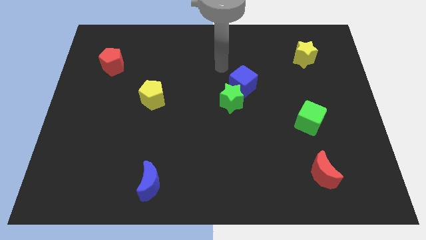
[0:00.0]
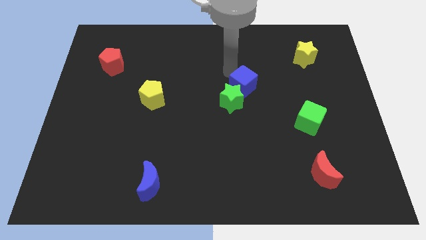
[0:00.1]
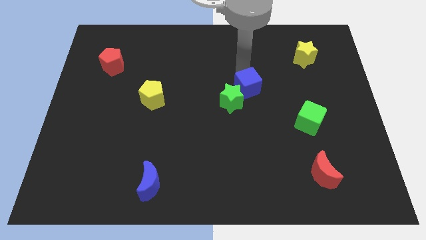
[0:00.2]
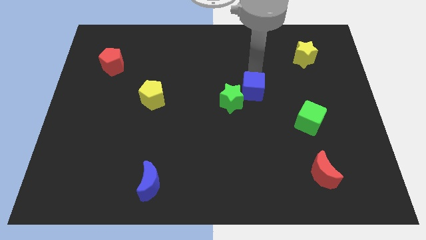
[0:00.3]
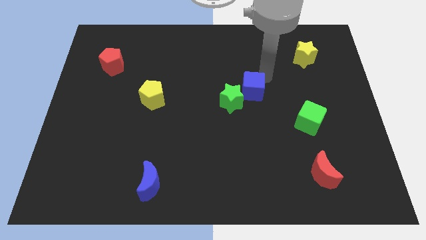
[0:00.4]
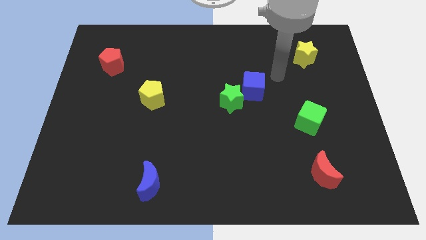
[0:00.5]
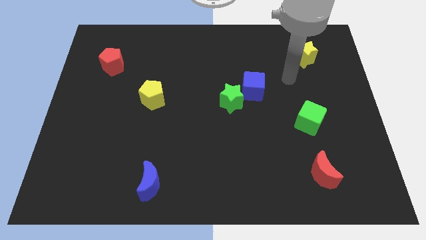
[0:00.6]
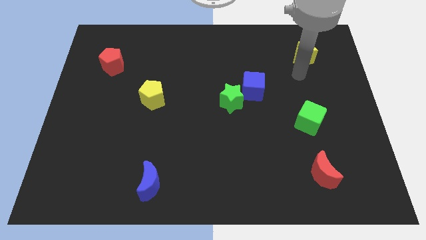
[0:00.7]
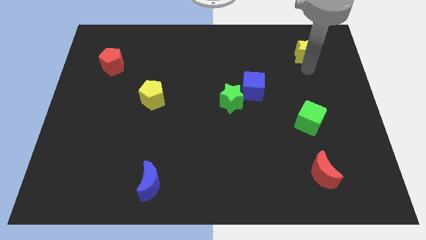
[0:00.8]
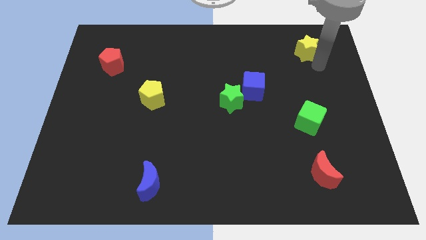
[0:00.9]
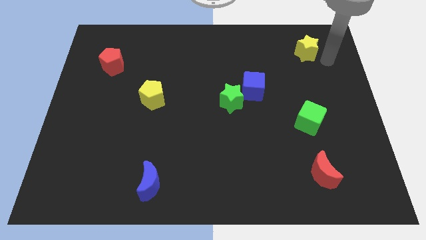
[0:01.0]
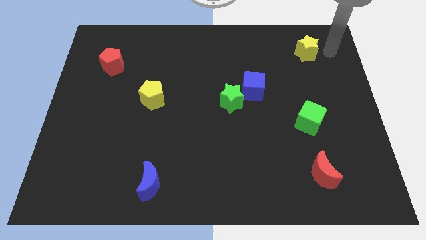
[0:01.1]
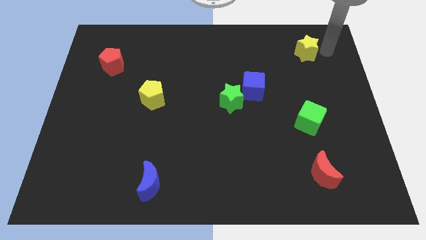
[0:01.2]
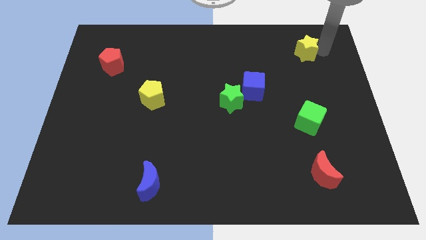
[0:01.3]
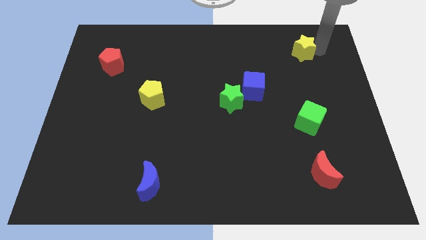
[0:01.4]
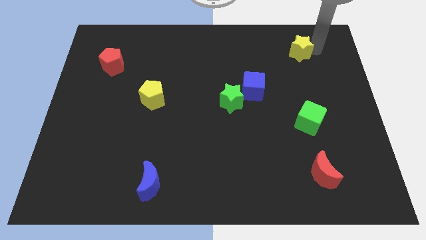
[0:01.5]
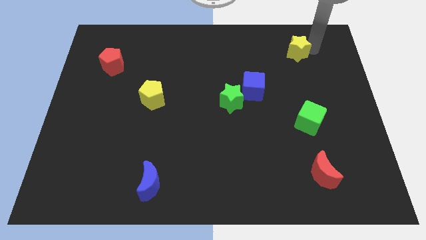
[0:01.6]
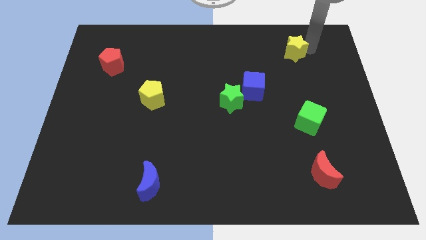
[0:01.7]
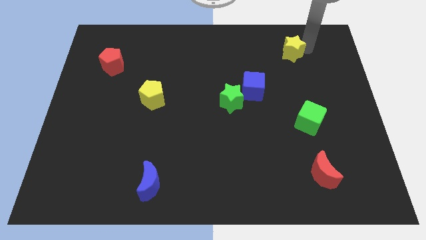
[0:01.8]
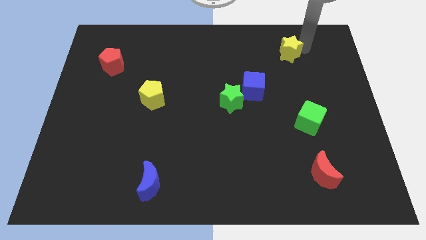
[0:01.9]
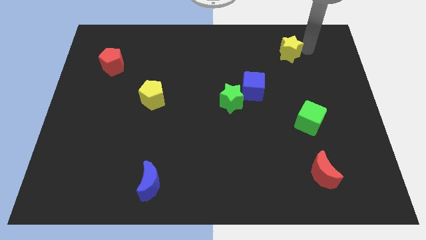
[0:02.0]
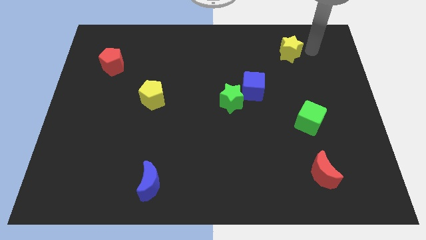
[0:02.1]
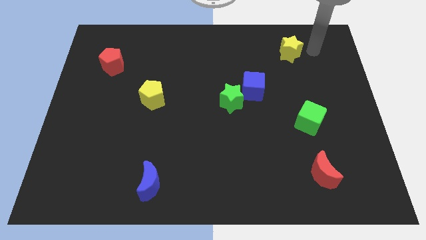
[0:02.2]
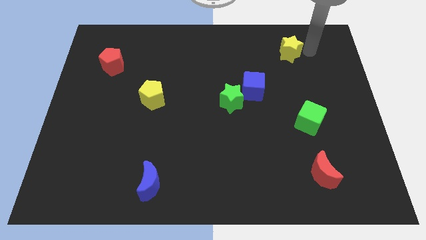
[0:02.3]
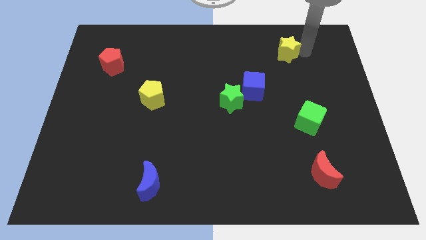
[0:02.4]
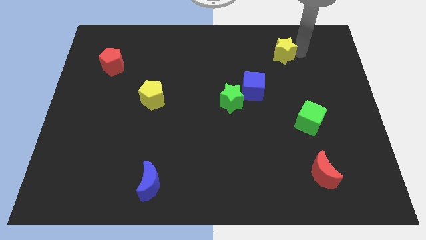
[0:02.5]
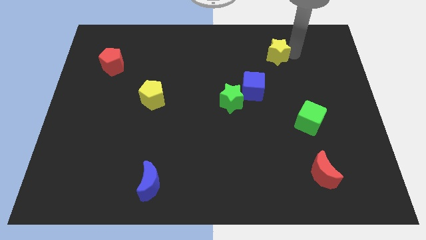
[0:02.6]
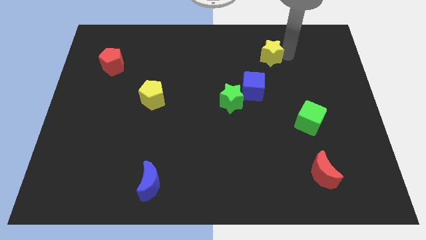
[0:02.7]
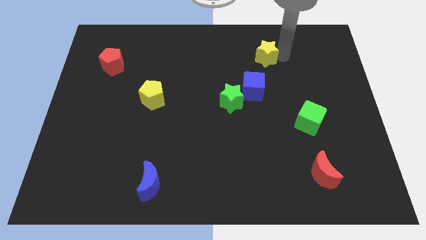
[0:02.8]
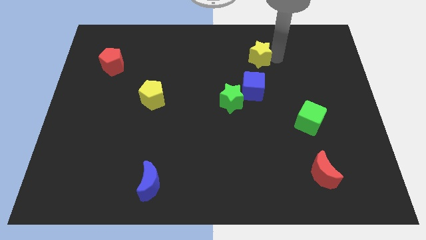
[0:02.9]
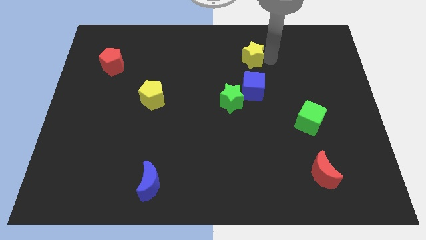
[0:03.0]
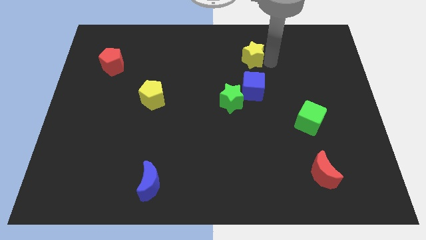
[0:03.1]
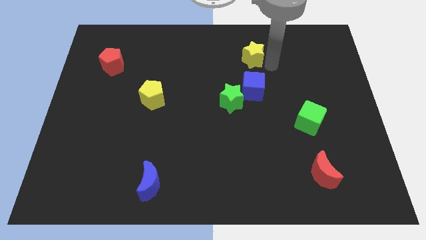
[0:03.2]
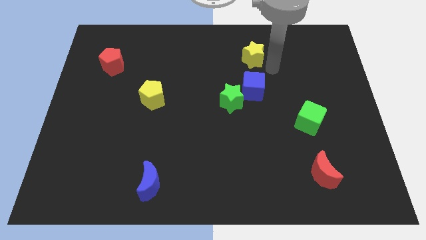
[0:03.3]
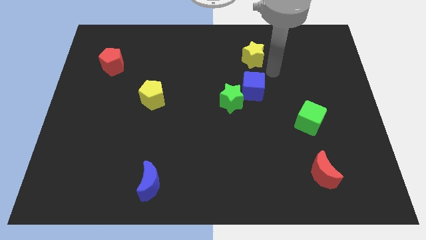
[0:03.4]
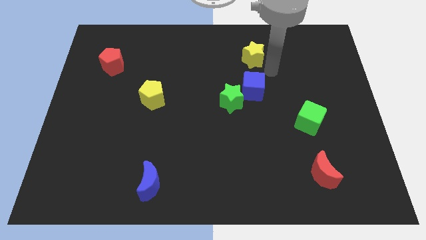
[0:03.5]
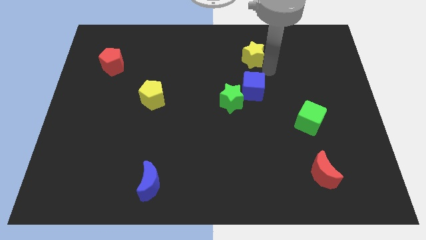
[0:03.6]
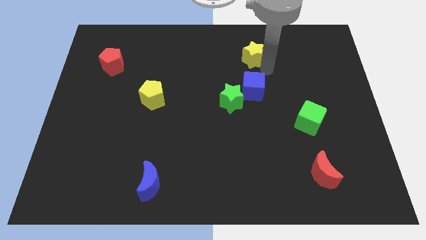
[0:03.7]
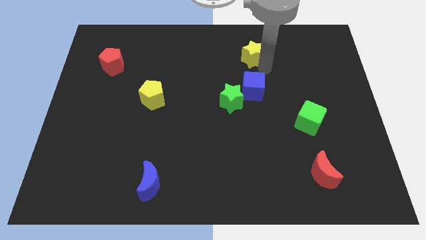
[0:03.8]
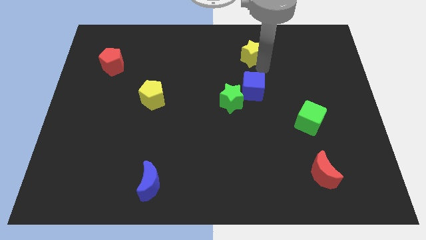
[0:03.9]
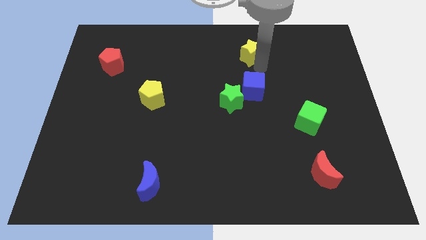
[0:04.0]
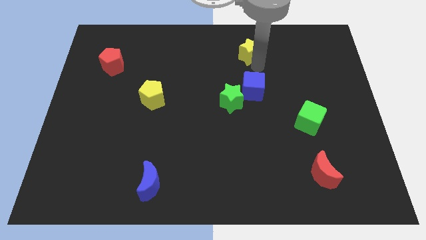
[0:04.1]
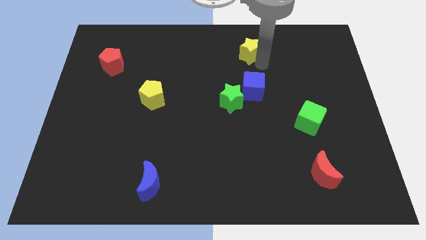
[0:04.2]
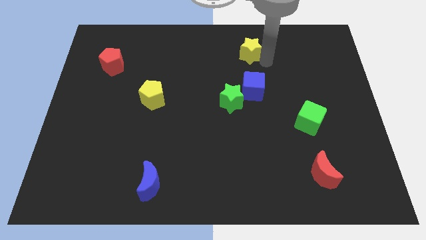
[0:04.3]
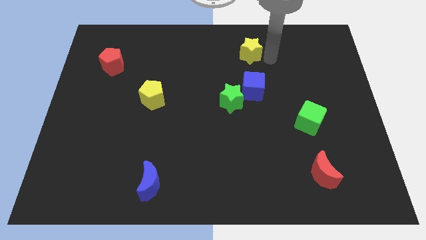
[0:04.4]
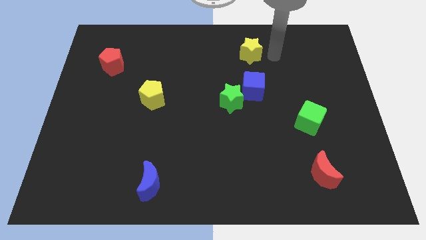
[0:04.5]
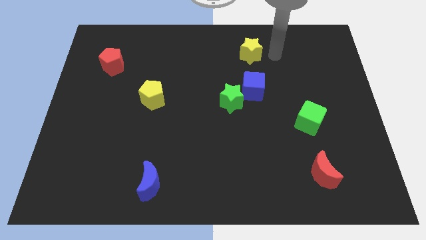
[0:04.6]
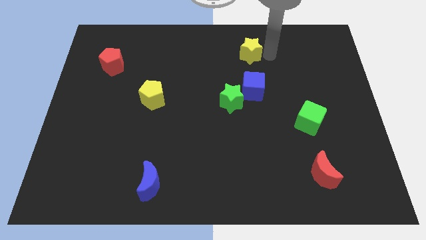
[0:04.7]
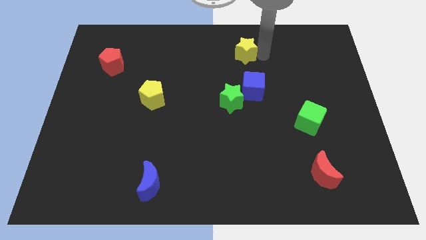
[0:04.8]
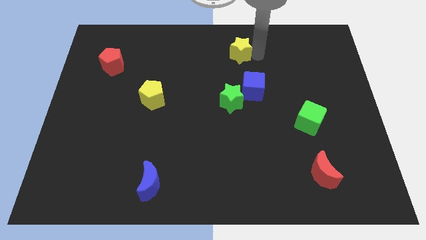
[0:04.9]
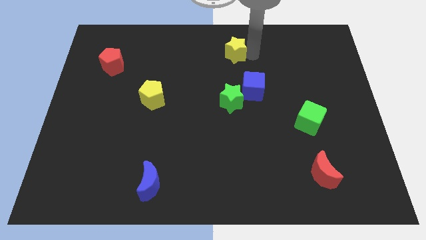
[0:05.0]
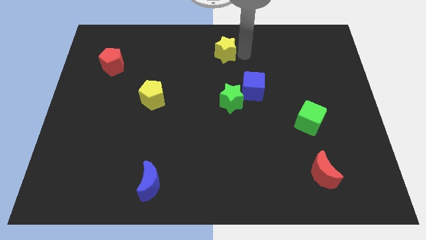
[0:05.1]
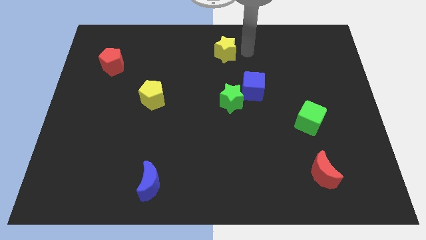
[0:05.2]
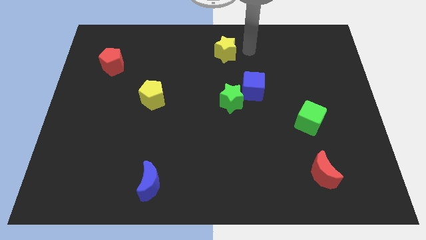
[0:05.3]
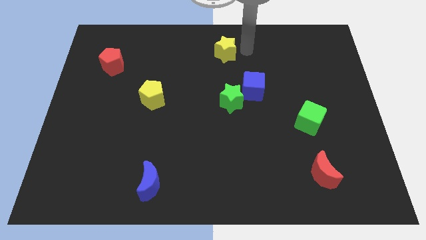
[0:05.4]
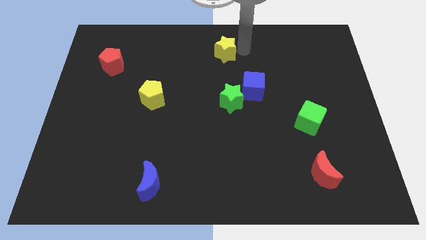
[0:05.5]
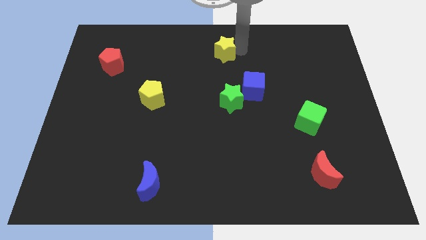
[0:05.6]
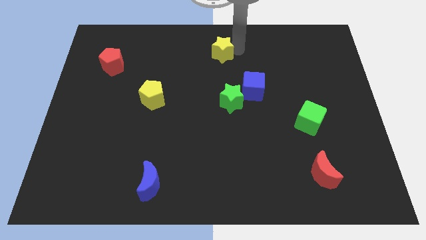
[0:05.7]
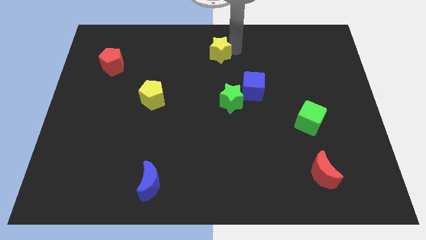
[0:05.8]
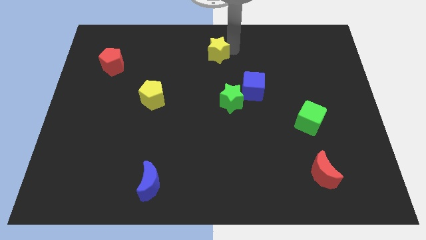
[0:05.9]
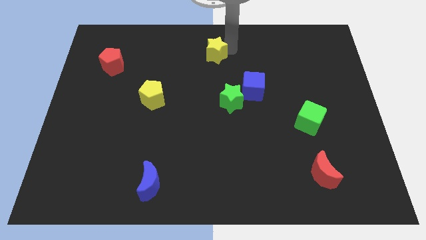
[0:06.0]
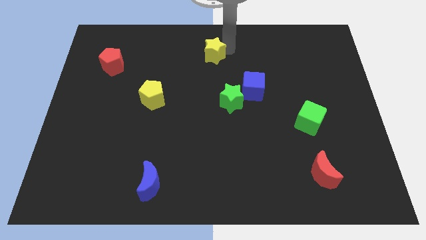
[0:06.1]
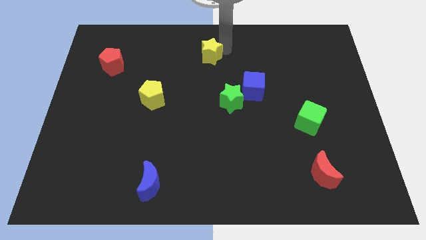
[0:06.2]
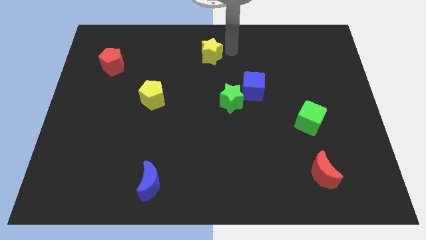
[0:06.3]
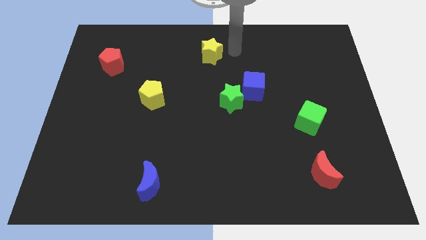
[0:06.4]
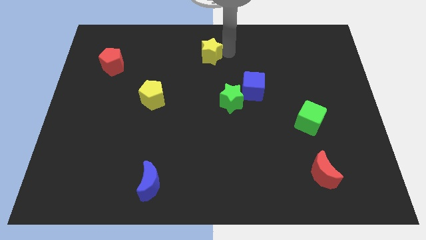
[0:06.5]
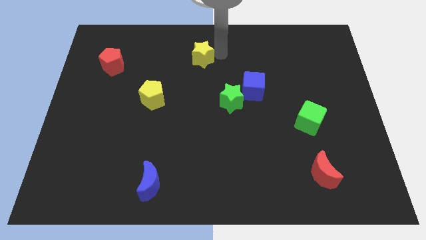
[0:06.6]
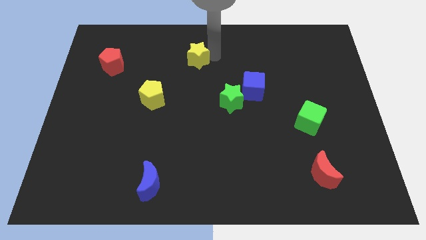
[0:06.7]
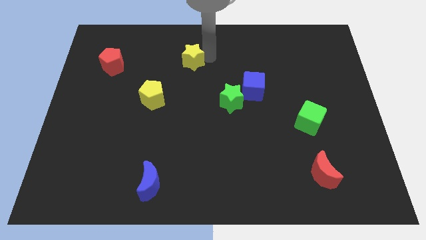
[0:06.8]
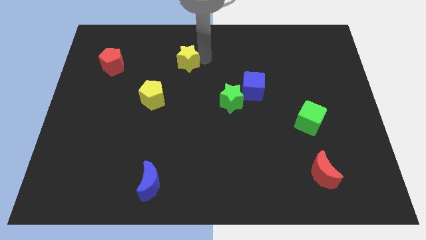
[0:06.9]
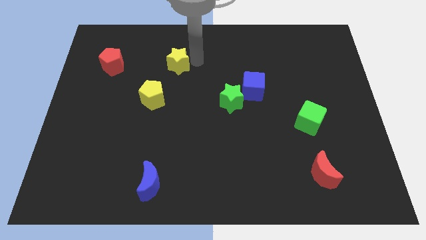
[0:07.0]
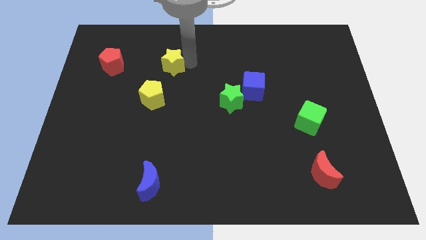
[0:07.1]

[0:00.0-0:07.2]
put the yellow star above the yellow pentagon

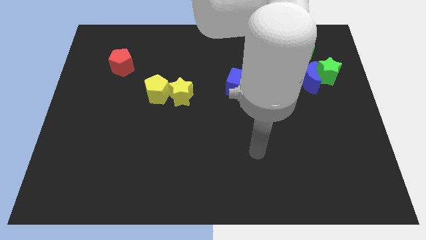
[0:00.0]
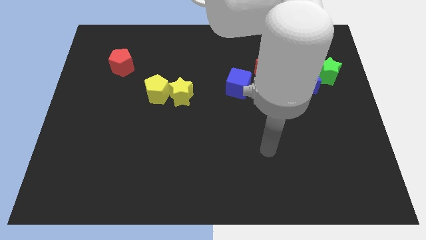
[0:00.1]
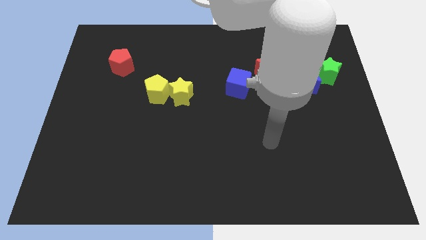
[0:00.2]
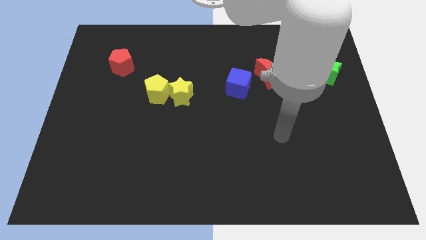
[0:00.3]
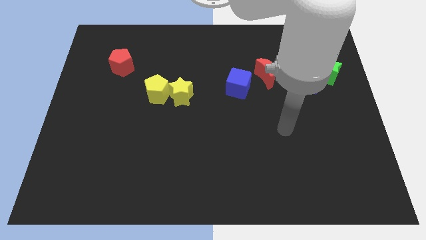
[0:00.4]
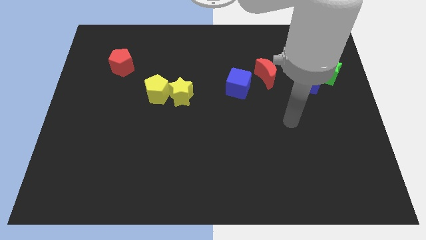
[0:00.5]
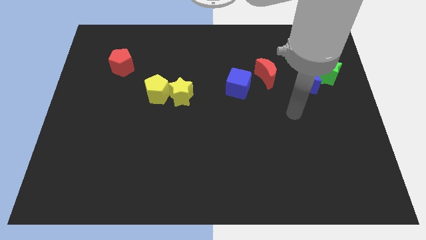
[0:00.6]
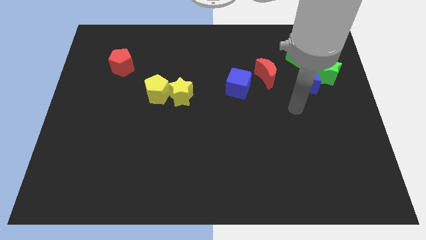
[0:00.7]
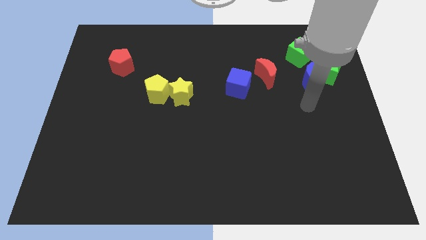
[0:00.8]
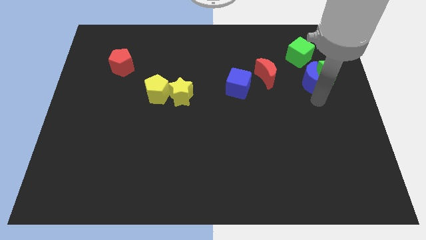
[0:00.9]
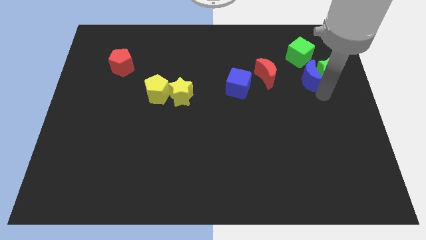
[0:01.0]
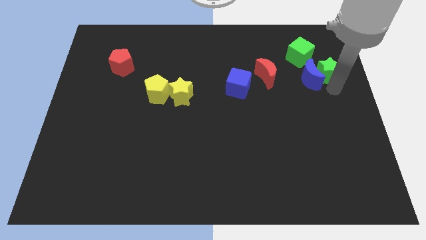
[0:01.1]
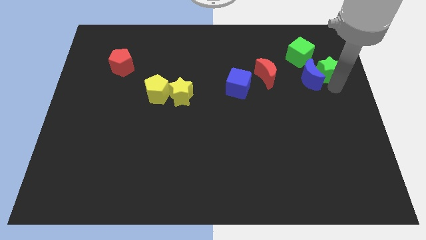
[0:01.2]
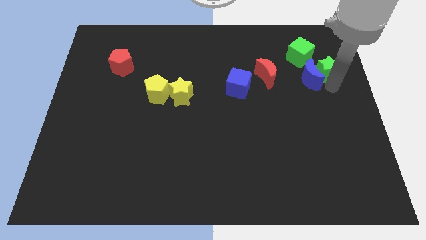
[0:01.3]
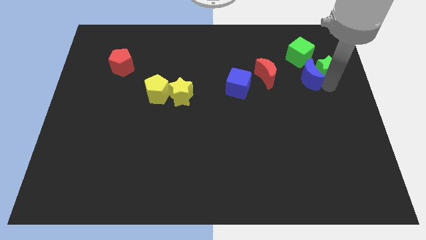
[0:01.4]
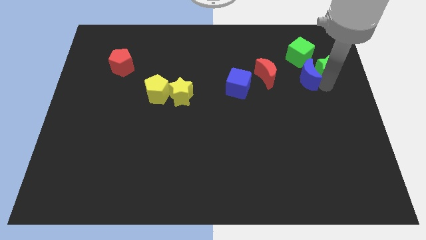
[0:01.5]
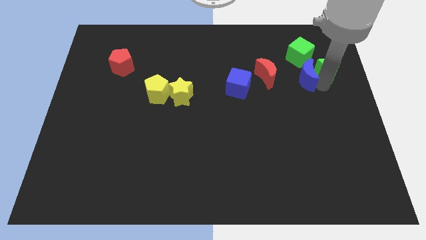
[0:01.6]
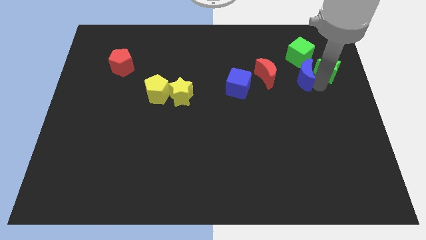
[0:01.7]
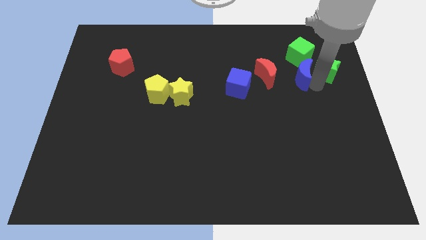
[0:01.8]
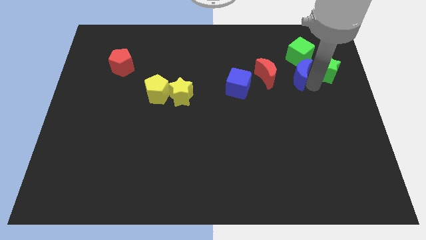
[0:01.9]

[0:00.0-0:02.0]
move the blue moon to the bottom left of the green cube
